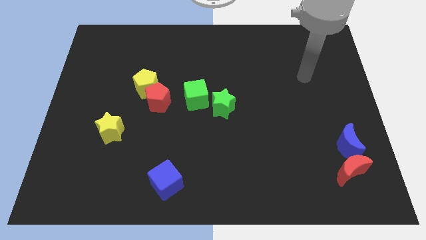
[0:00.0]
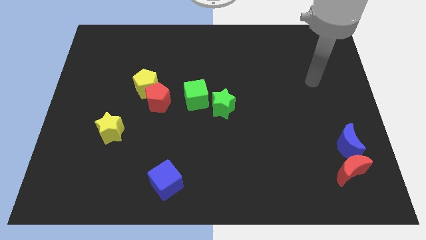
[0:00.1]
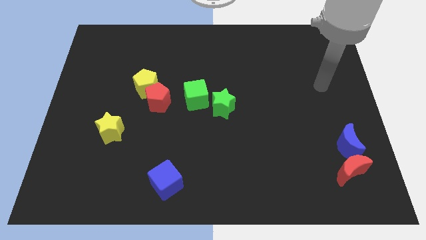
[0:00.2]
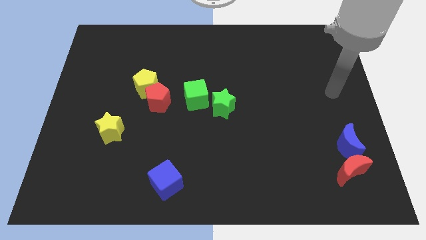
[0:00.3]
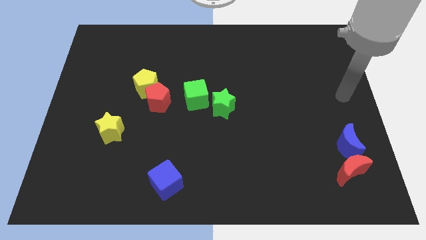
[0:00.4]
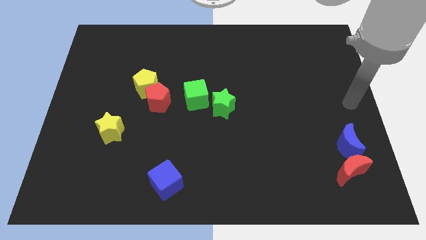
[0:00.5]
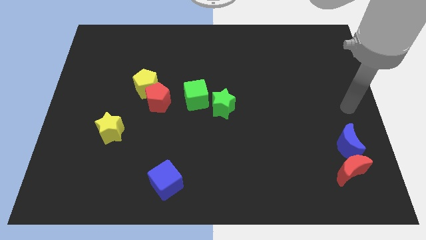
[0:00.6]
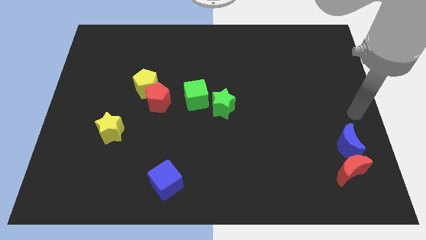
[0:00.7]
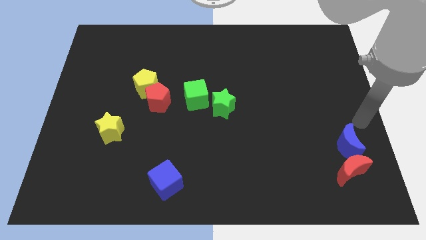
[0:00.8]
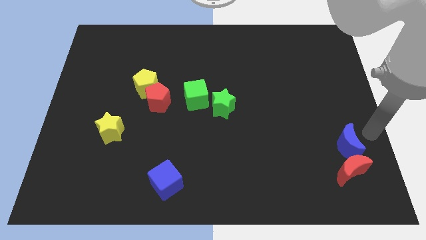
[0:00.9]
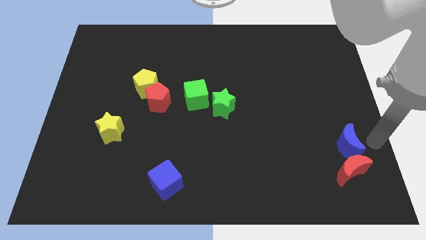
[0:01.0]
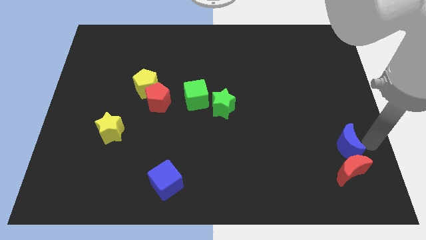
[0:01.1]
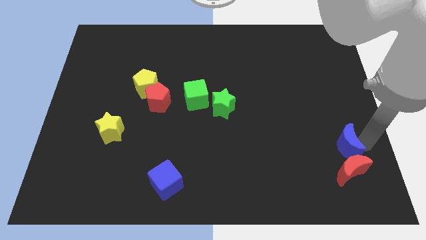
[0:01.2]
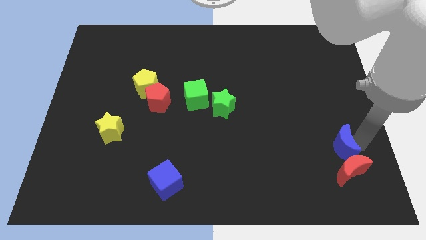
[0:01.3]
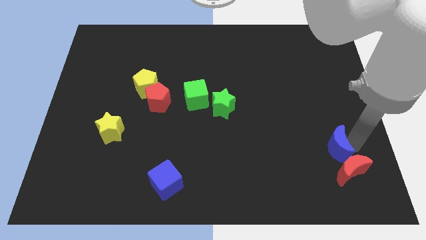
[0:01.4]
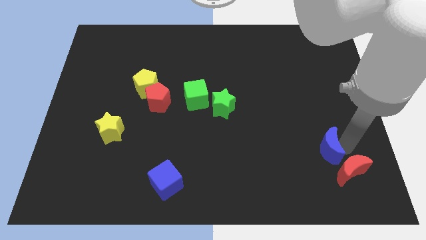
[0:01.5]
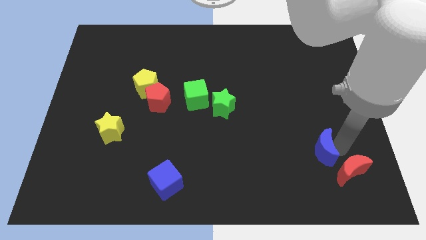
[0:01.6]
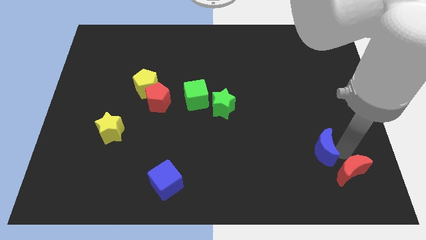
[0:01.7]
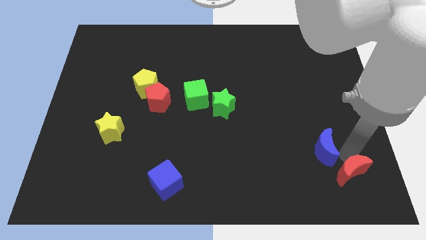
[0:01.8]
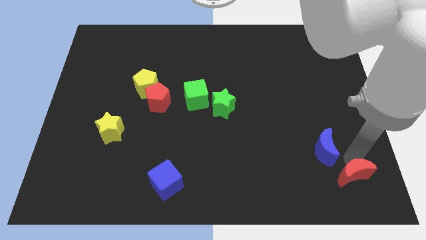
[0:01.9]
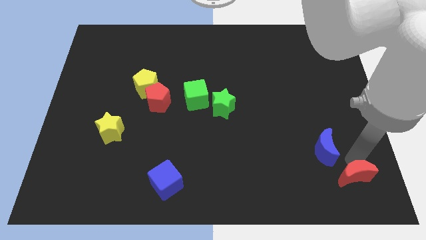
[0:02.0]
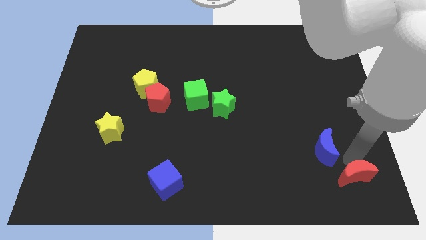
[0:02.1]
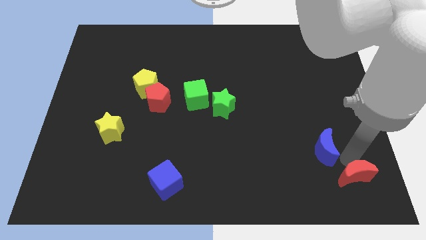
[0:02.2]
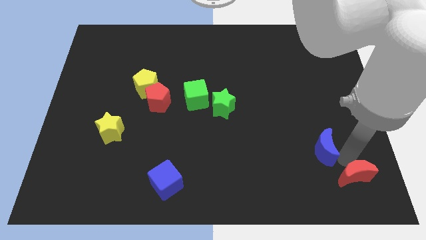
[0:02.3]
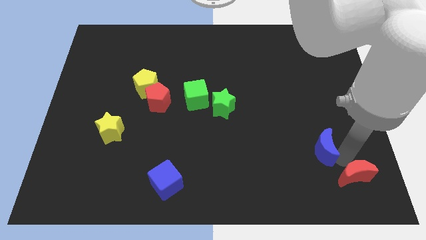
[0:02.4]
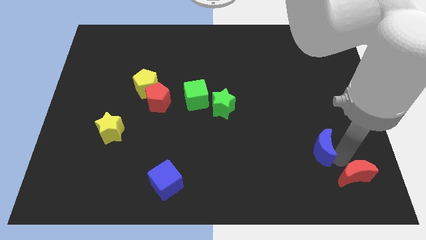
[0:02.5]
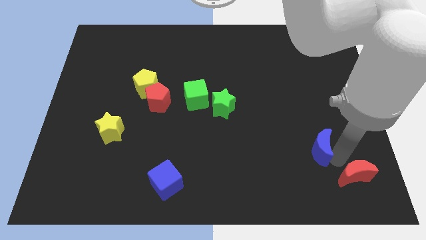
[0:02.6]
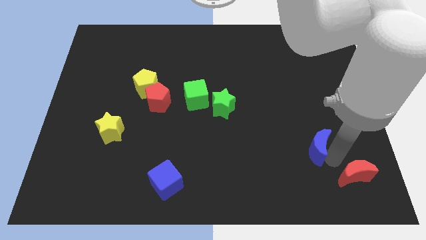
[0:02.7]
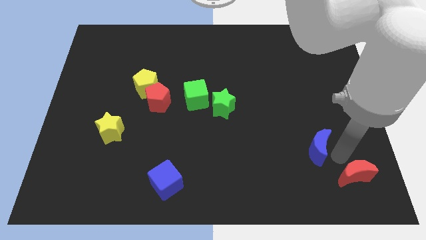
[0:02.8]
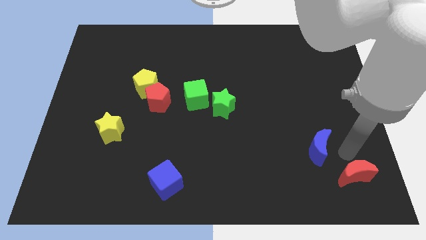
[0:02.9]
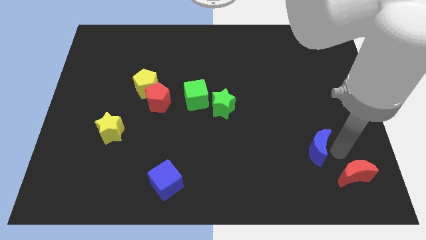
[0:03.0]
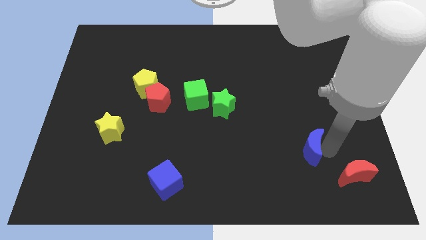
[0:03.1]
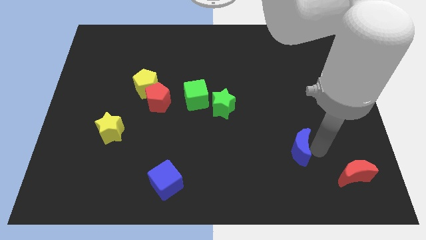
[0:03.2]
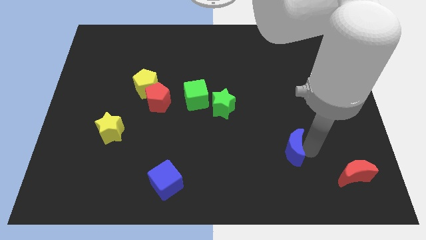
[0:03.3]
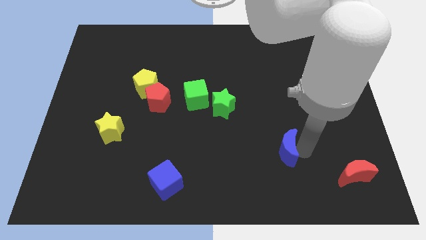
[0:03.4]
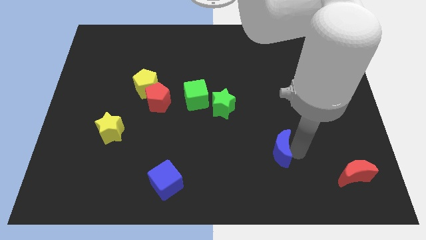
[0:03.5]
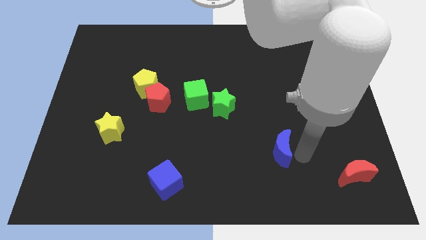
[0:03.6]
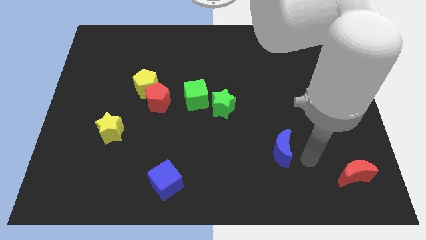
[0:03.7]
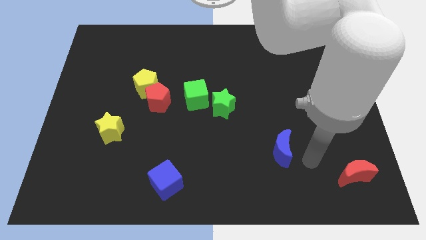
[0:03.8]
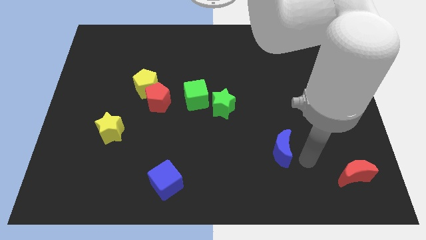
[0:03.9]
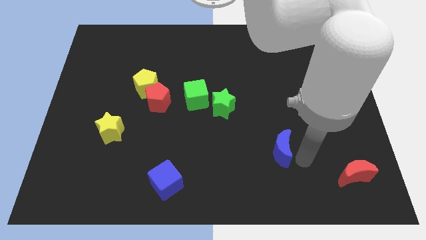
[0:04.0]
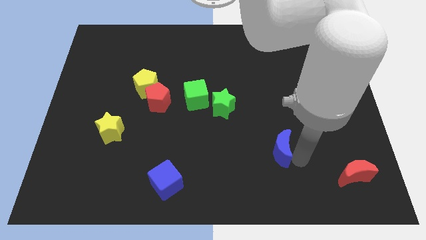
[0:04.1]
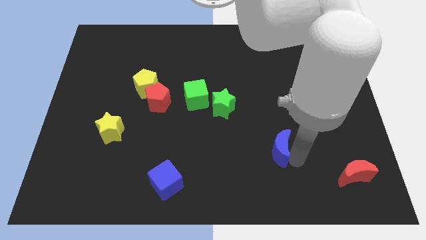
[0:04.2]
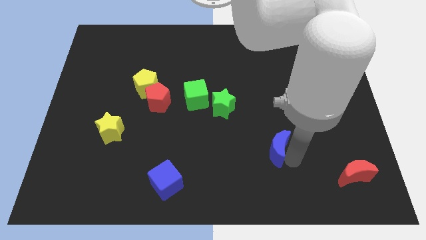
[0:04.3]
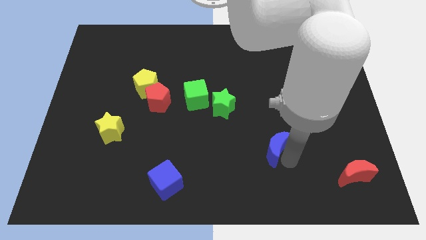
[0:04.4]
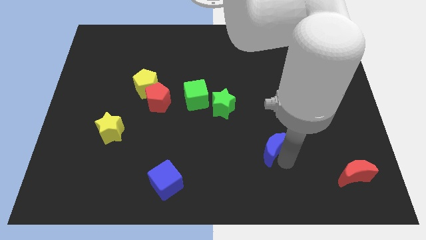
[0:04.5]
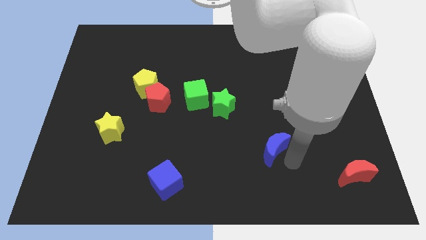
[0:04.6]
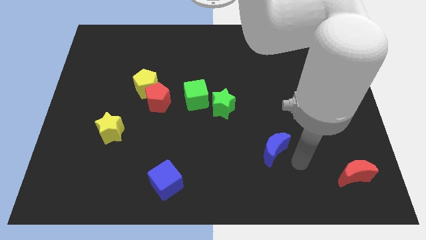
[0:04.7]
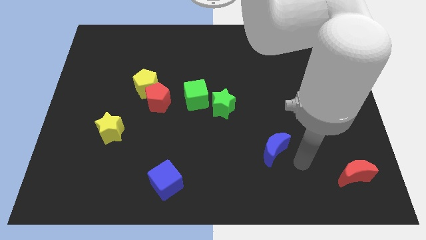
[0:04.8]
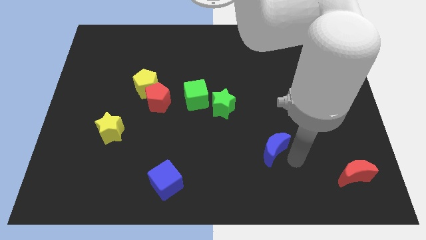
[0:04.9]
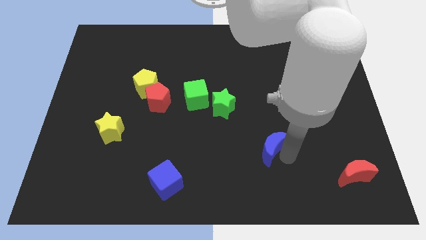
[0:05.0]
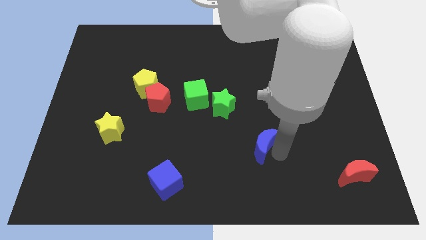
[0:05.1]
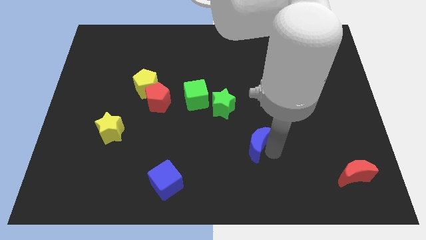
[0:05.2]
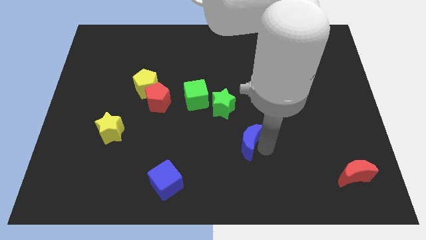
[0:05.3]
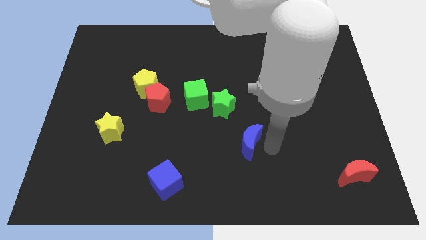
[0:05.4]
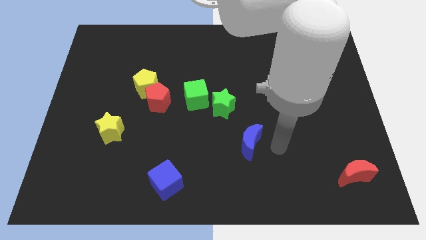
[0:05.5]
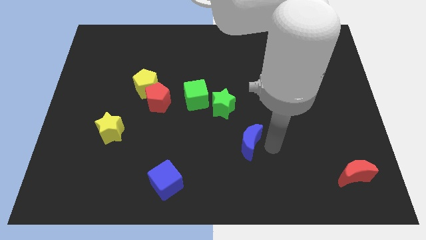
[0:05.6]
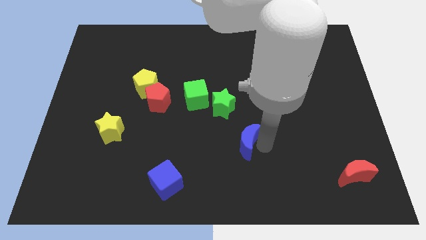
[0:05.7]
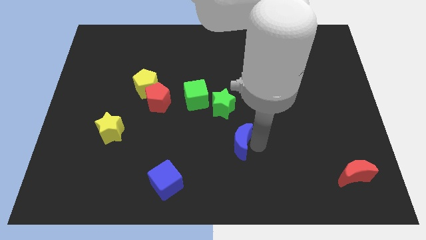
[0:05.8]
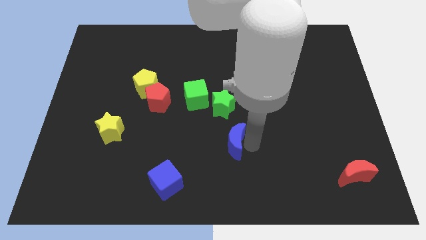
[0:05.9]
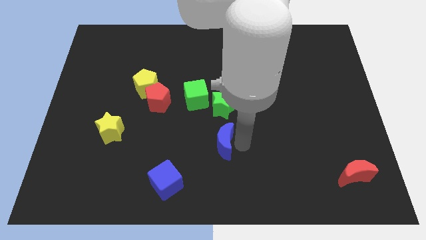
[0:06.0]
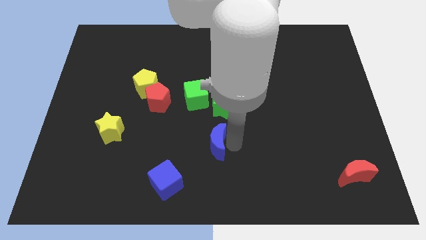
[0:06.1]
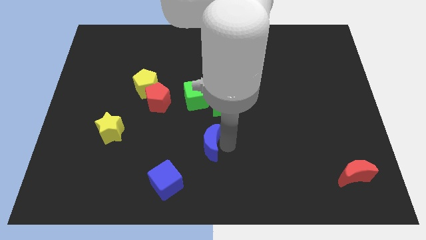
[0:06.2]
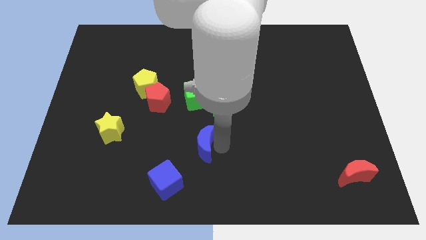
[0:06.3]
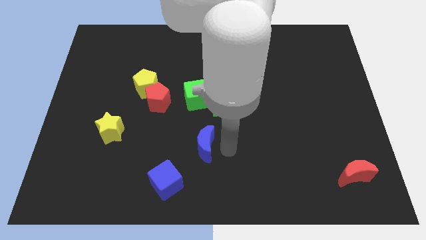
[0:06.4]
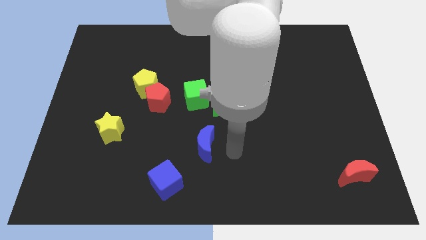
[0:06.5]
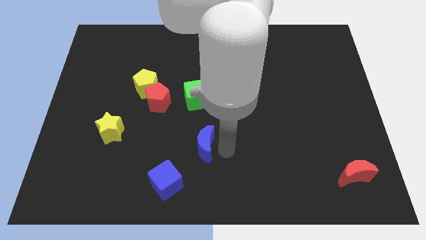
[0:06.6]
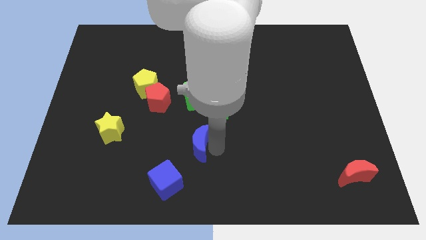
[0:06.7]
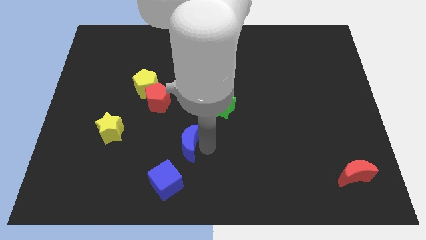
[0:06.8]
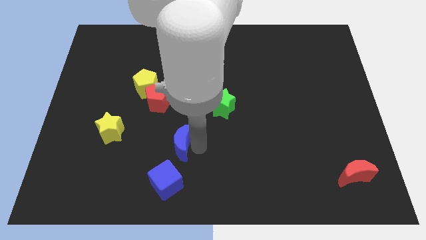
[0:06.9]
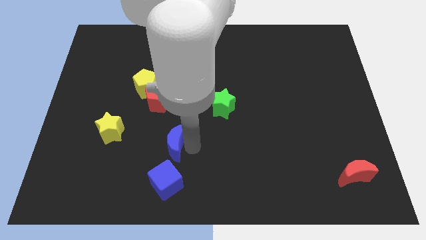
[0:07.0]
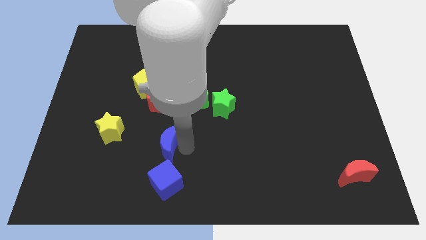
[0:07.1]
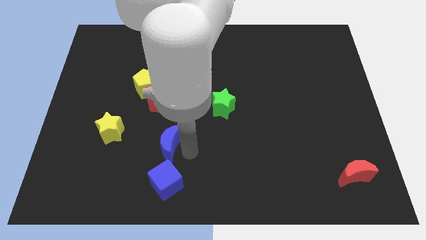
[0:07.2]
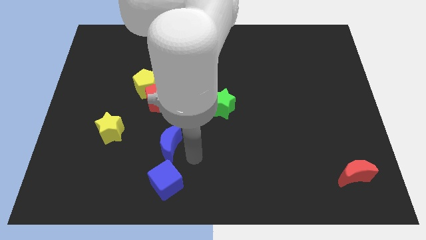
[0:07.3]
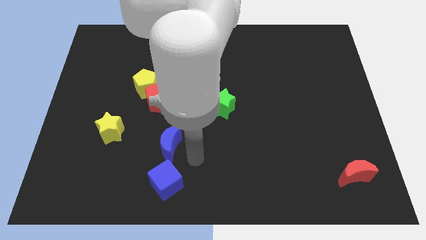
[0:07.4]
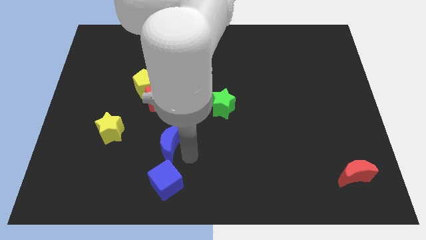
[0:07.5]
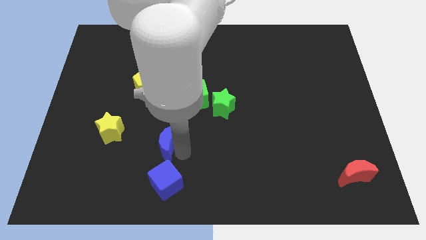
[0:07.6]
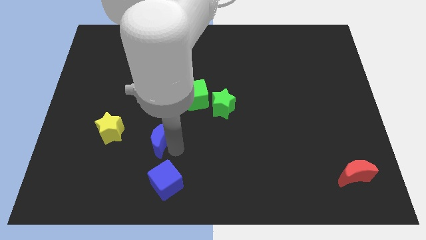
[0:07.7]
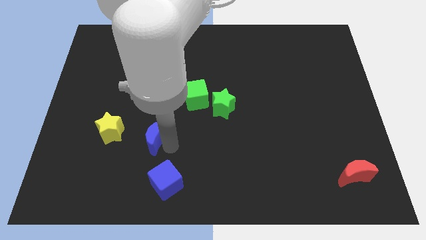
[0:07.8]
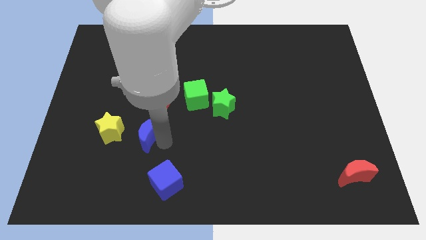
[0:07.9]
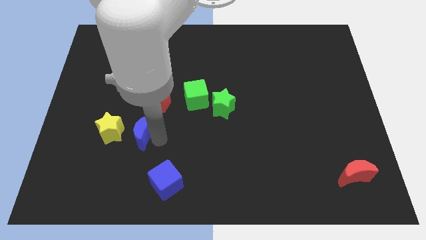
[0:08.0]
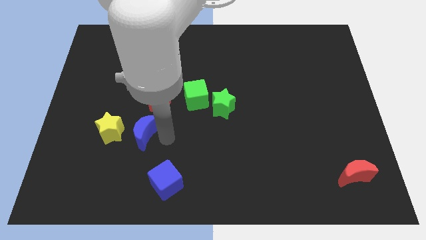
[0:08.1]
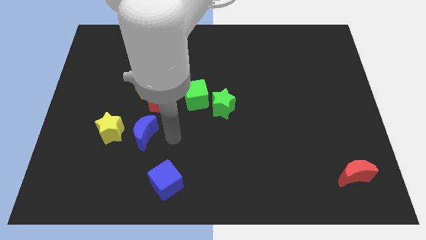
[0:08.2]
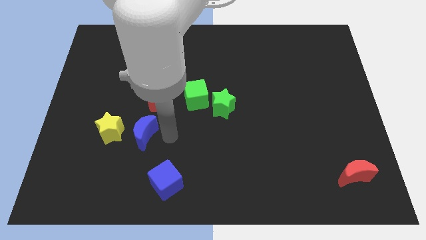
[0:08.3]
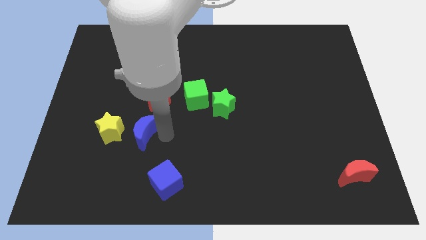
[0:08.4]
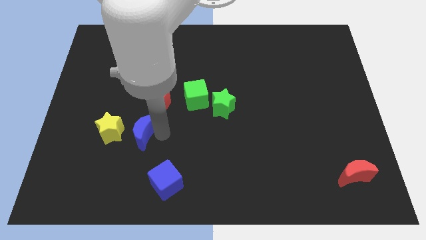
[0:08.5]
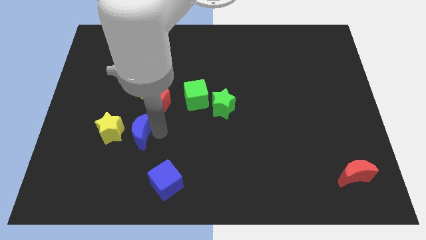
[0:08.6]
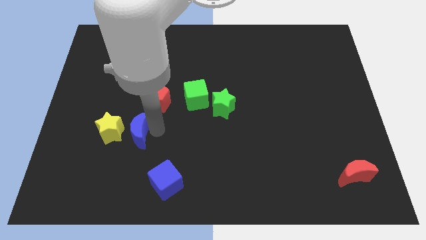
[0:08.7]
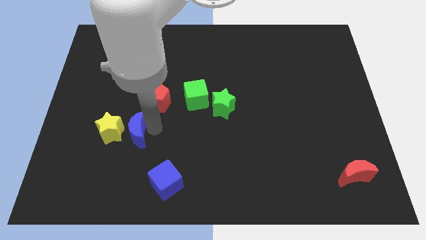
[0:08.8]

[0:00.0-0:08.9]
slide the blue moon close to the yellow star
